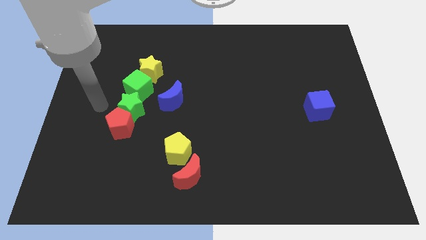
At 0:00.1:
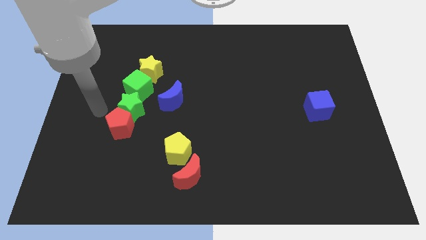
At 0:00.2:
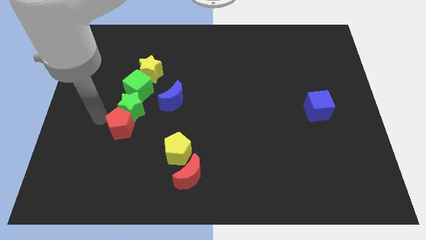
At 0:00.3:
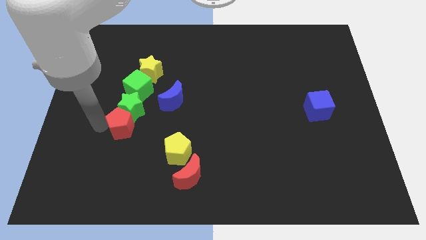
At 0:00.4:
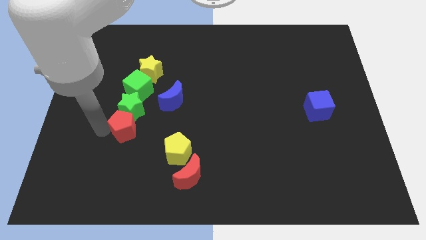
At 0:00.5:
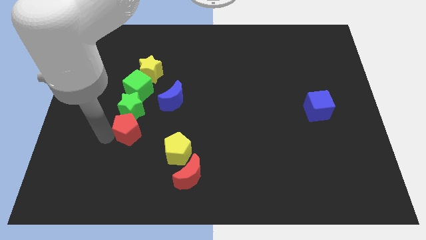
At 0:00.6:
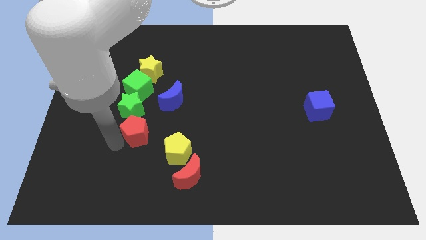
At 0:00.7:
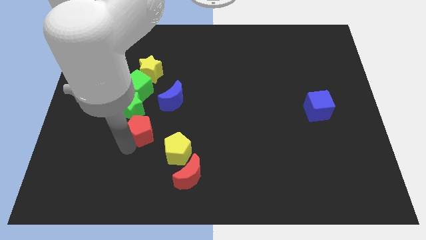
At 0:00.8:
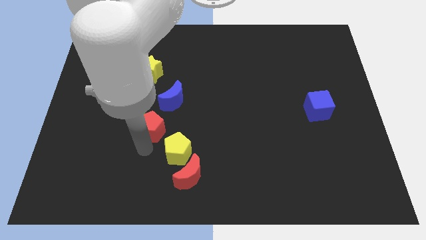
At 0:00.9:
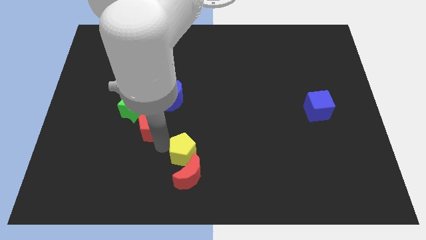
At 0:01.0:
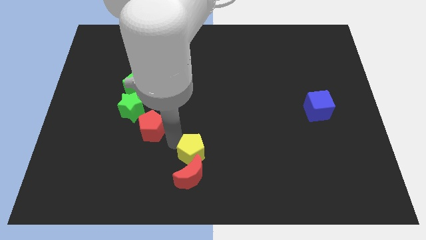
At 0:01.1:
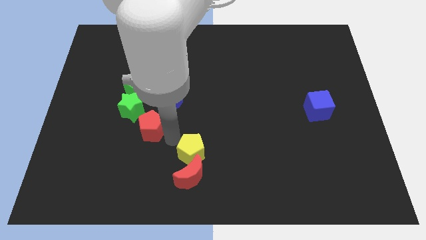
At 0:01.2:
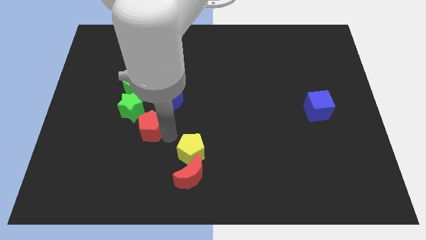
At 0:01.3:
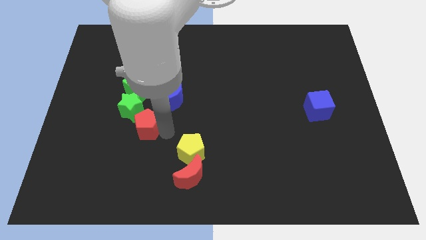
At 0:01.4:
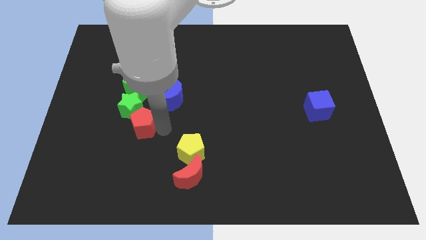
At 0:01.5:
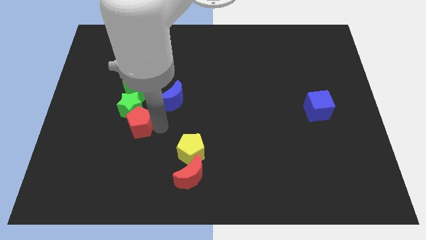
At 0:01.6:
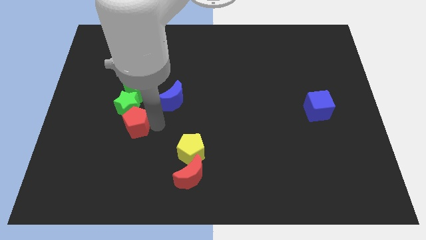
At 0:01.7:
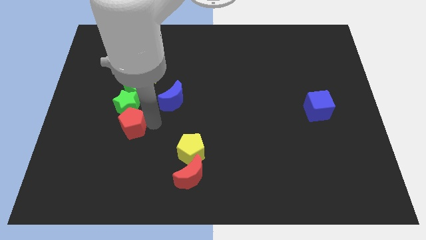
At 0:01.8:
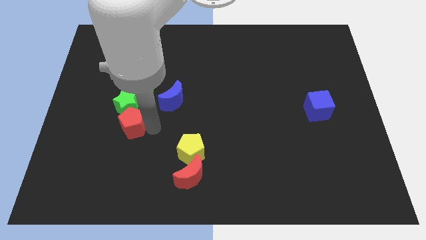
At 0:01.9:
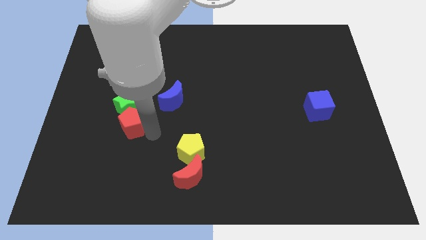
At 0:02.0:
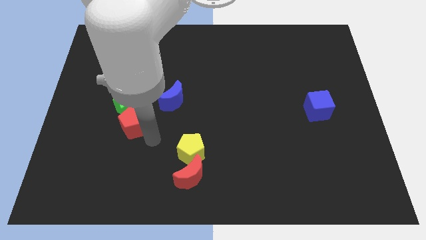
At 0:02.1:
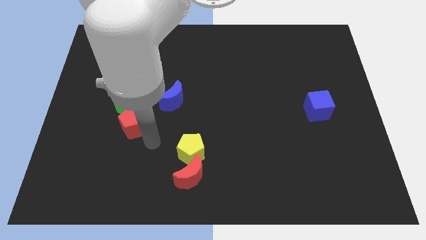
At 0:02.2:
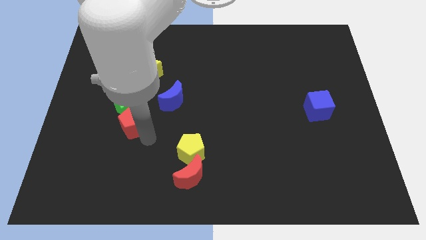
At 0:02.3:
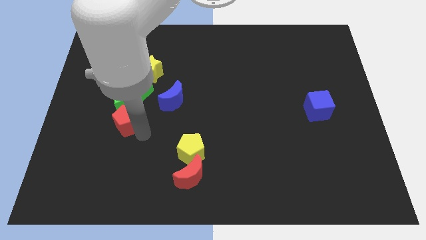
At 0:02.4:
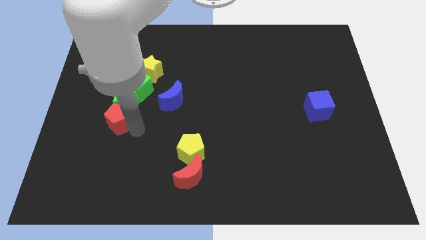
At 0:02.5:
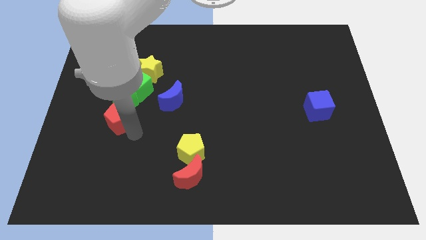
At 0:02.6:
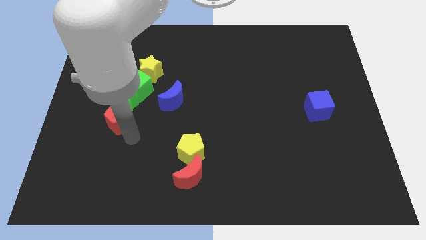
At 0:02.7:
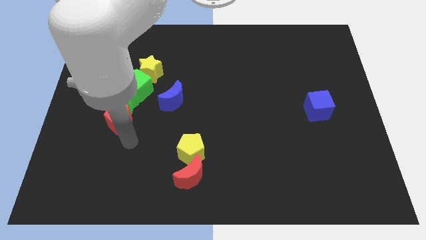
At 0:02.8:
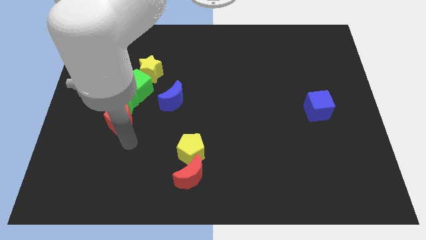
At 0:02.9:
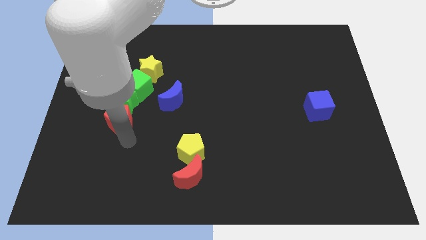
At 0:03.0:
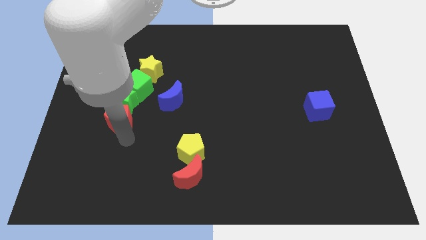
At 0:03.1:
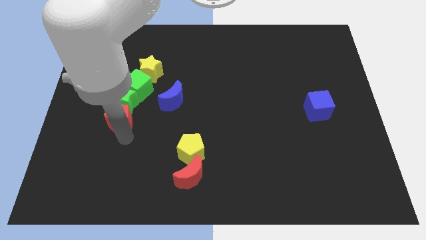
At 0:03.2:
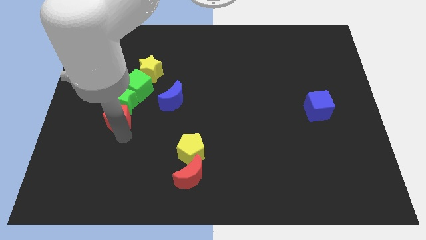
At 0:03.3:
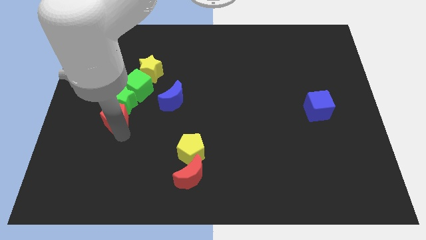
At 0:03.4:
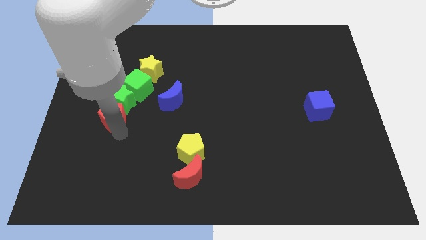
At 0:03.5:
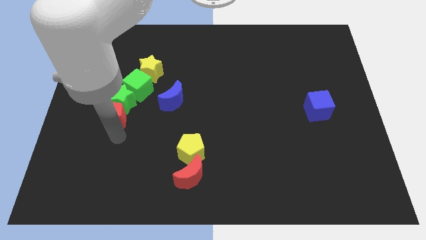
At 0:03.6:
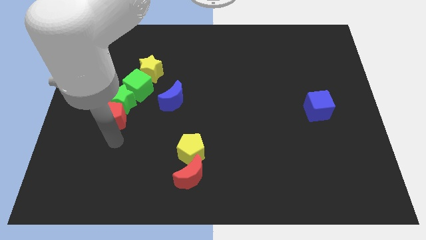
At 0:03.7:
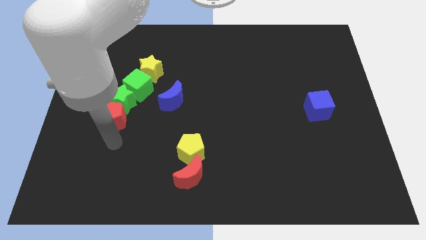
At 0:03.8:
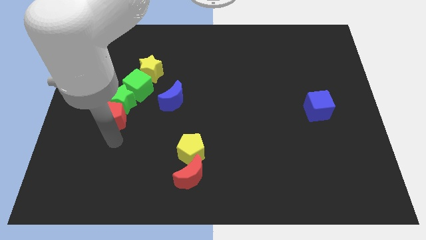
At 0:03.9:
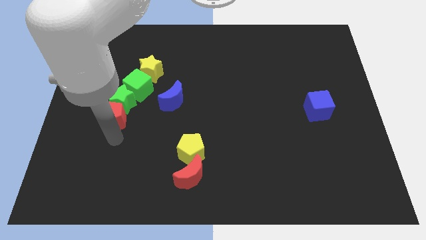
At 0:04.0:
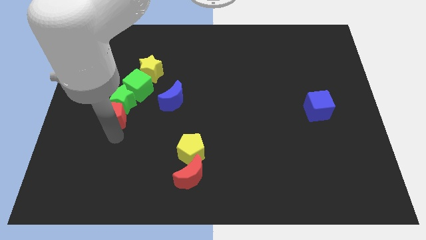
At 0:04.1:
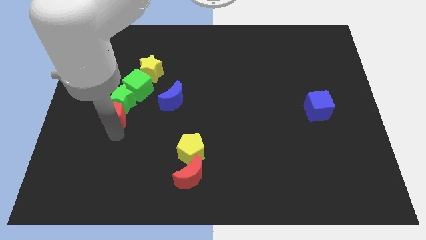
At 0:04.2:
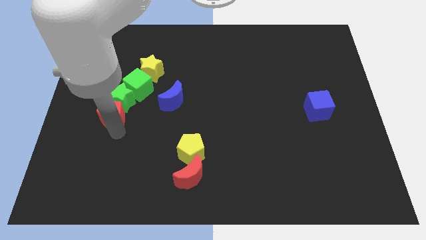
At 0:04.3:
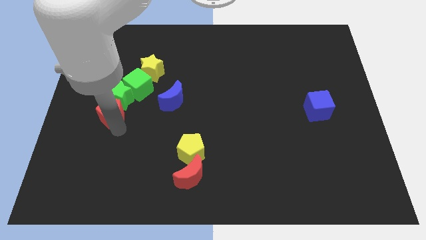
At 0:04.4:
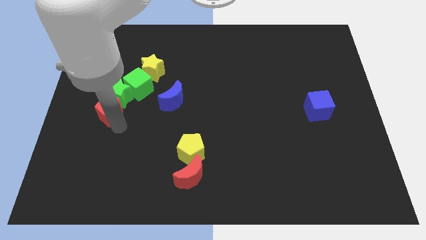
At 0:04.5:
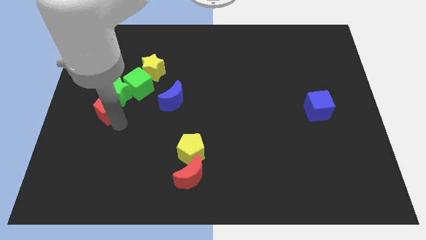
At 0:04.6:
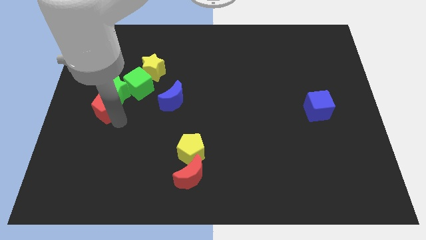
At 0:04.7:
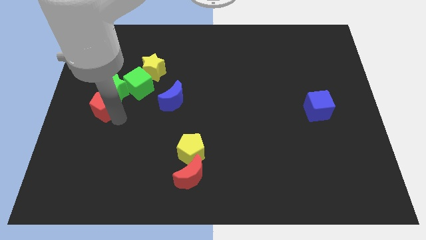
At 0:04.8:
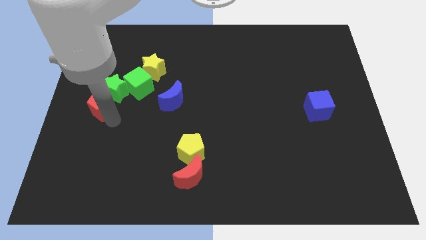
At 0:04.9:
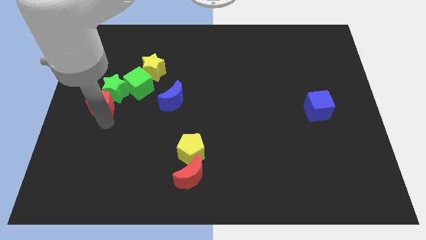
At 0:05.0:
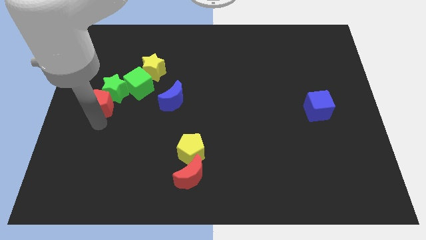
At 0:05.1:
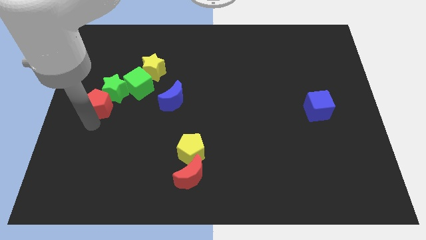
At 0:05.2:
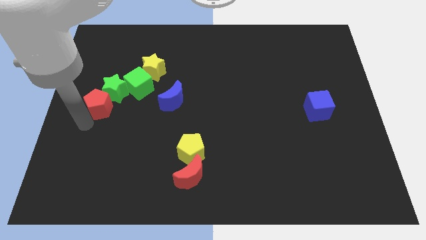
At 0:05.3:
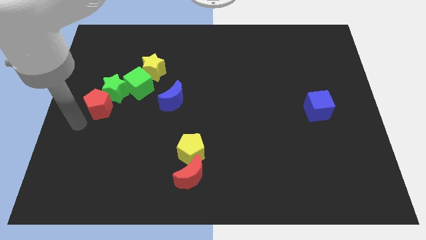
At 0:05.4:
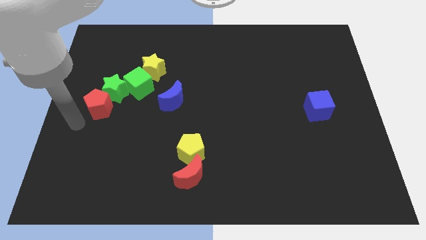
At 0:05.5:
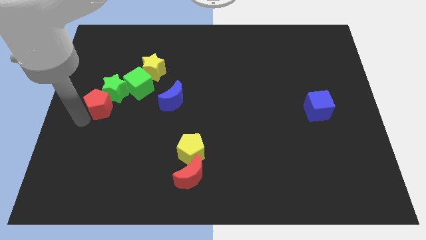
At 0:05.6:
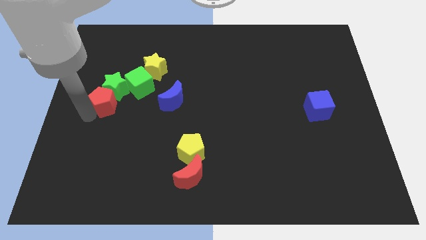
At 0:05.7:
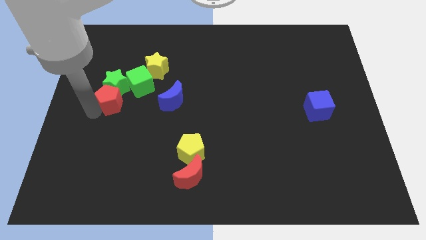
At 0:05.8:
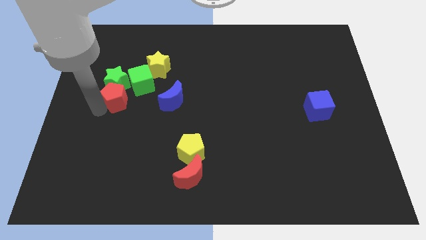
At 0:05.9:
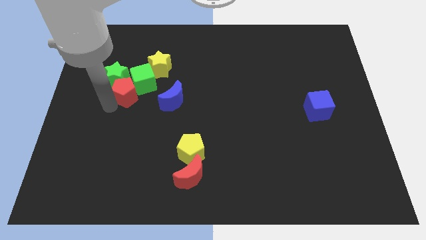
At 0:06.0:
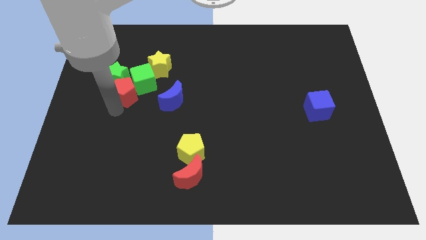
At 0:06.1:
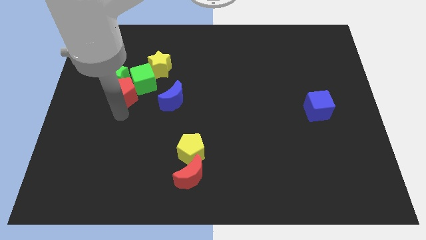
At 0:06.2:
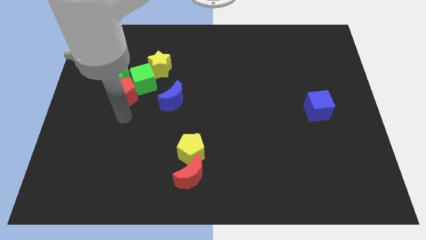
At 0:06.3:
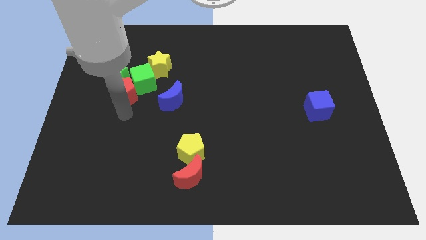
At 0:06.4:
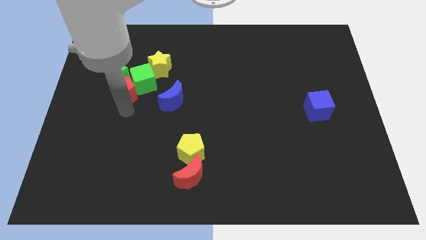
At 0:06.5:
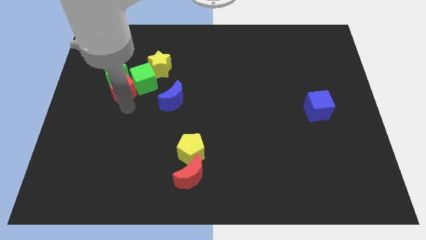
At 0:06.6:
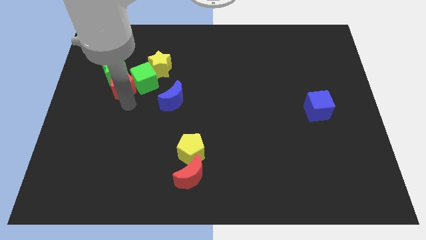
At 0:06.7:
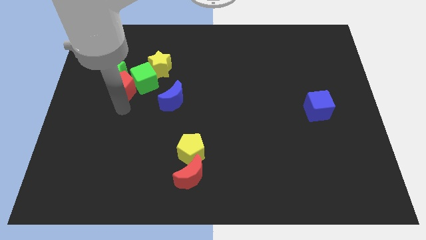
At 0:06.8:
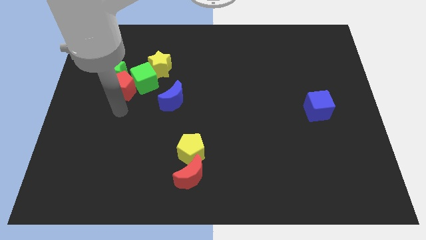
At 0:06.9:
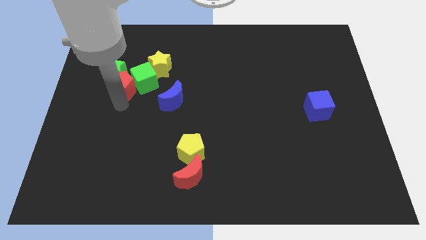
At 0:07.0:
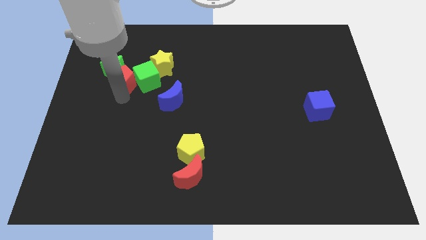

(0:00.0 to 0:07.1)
put the red pentagon to the top left side of the green cube

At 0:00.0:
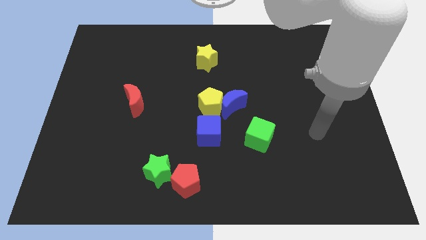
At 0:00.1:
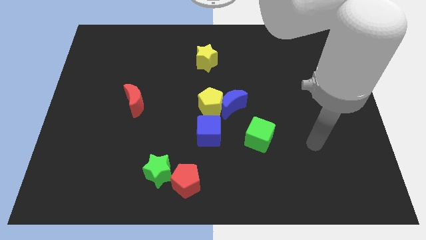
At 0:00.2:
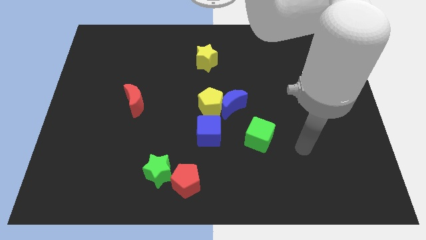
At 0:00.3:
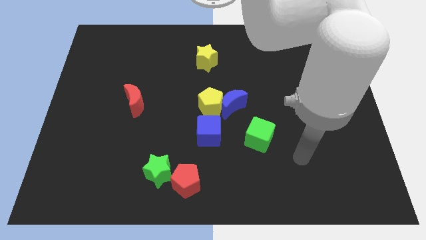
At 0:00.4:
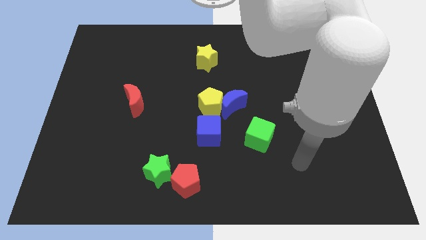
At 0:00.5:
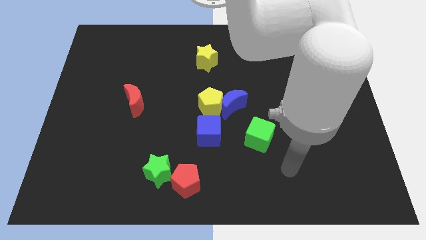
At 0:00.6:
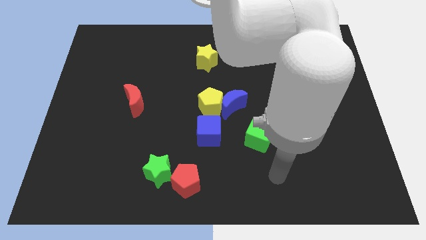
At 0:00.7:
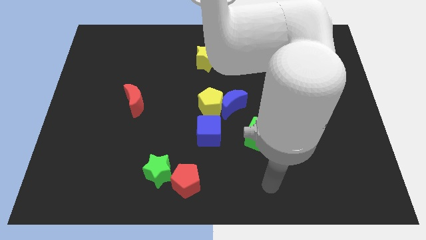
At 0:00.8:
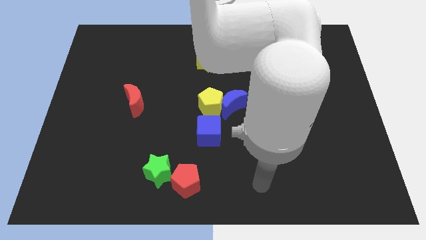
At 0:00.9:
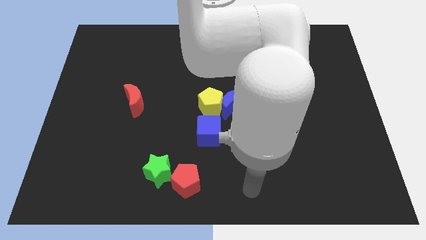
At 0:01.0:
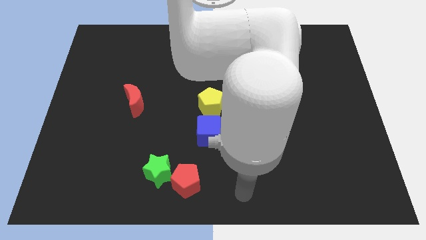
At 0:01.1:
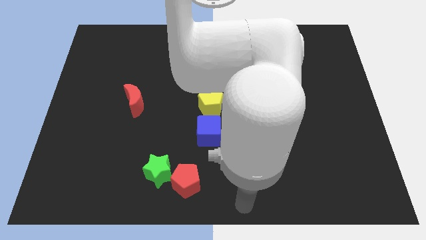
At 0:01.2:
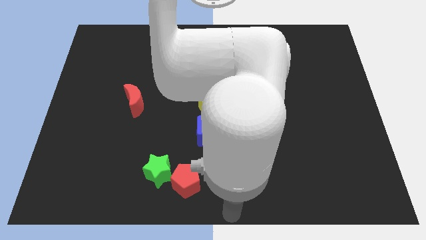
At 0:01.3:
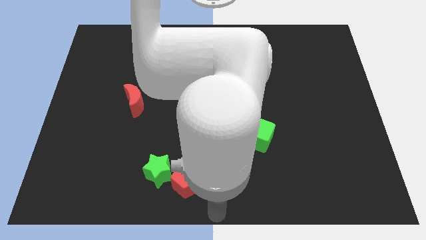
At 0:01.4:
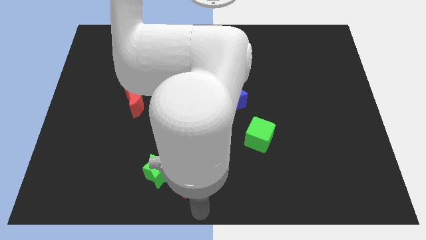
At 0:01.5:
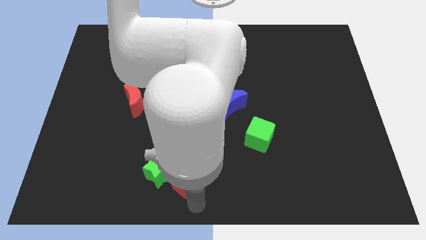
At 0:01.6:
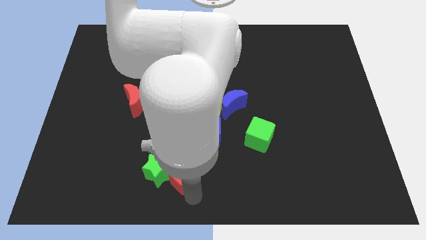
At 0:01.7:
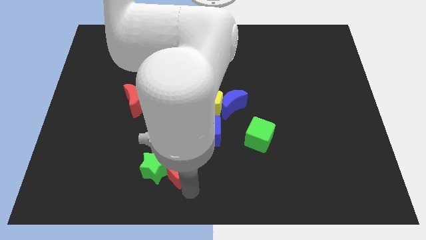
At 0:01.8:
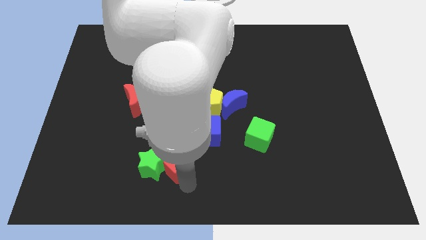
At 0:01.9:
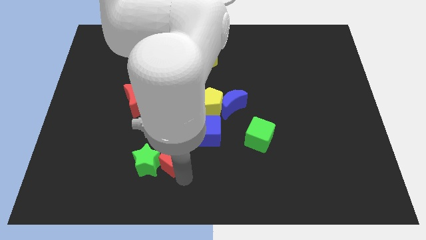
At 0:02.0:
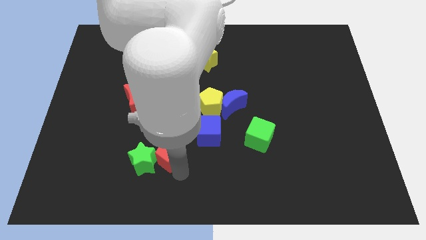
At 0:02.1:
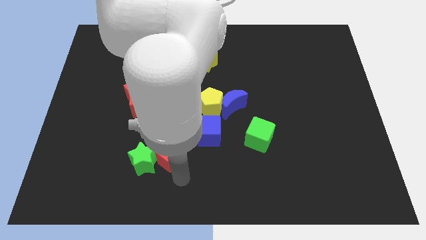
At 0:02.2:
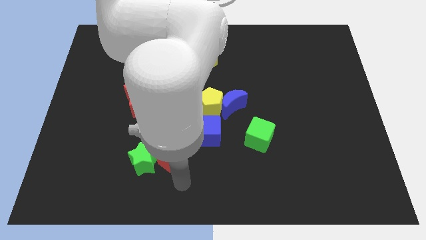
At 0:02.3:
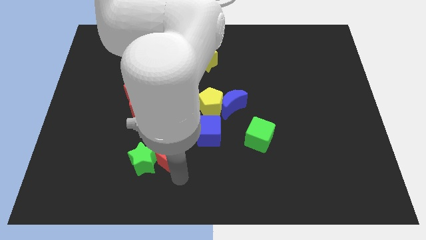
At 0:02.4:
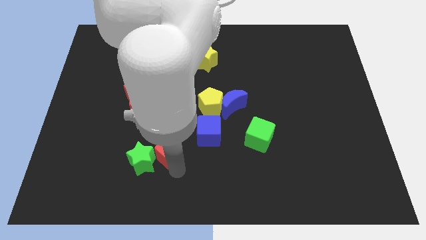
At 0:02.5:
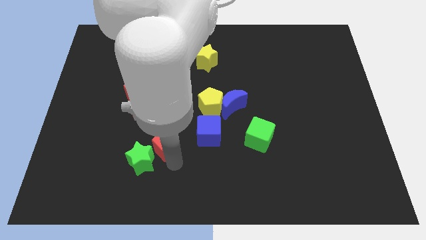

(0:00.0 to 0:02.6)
push the red pentagon to the left of the blue cube
